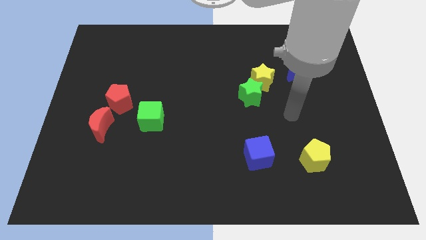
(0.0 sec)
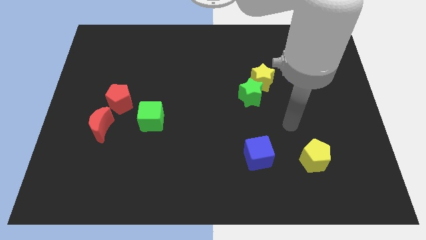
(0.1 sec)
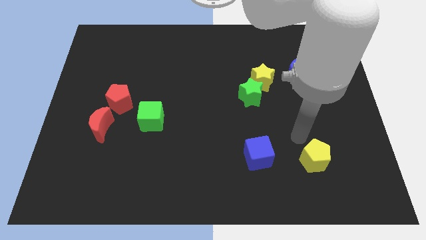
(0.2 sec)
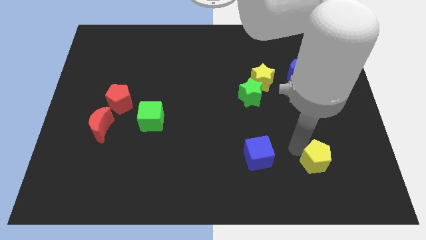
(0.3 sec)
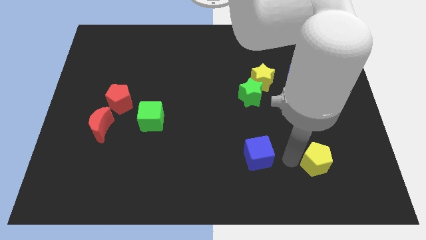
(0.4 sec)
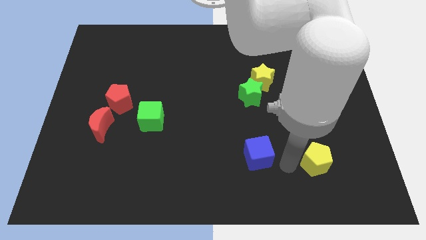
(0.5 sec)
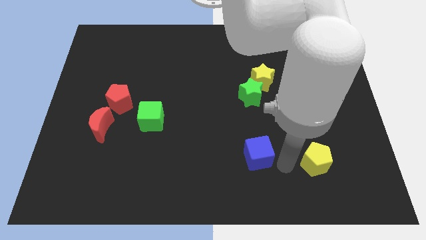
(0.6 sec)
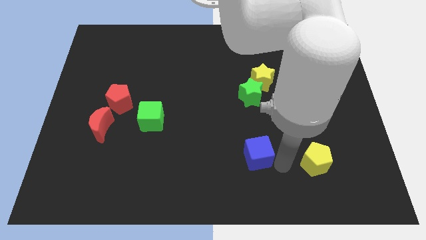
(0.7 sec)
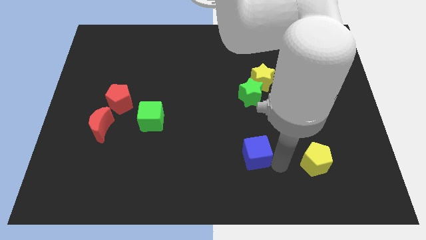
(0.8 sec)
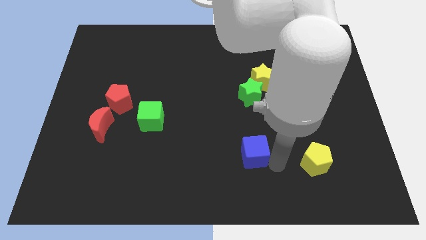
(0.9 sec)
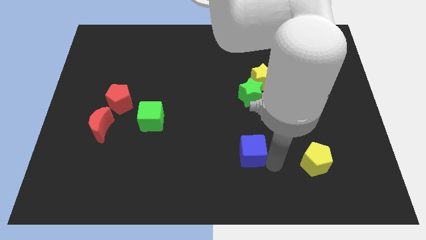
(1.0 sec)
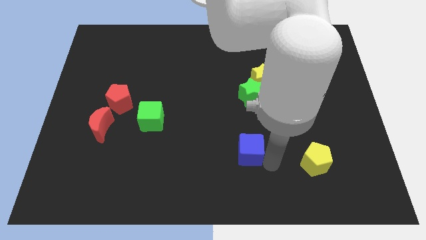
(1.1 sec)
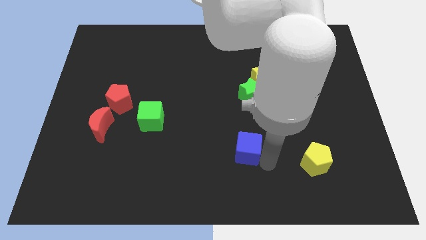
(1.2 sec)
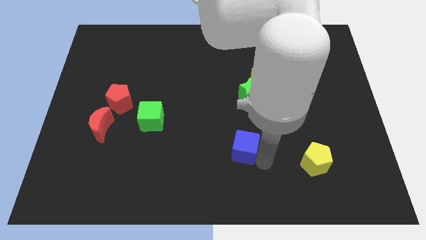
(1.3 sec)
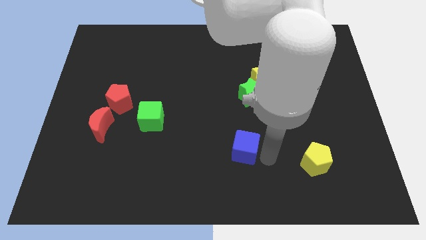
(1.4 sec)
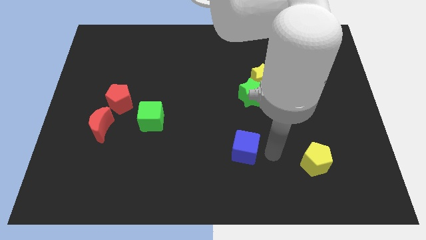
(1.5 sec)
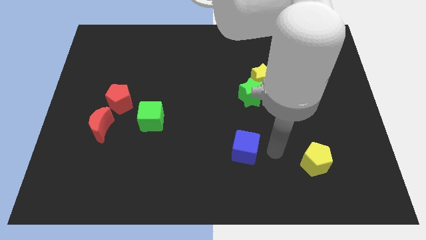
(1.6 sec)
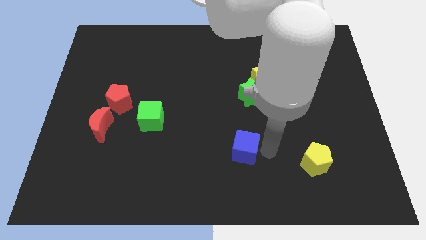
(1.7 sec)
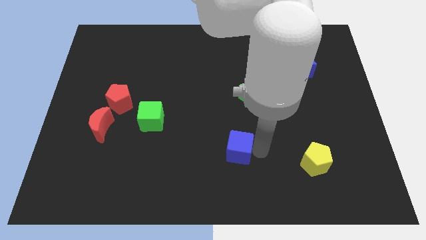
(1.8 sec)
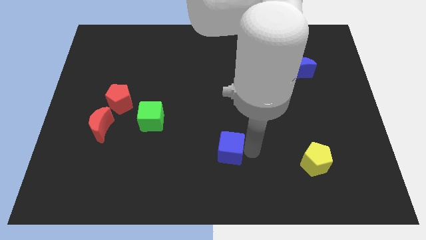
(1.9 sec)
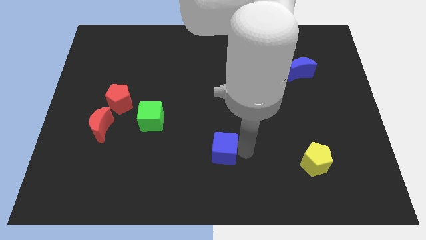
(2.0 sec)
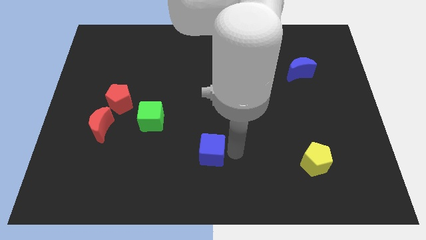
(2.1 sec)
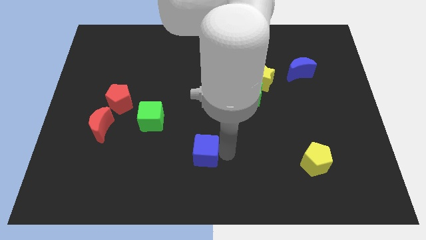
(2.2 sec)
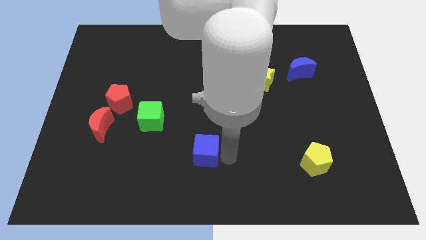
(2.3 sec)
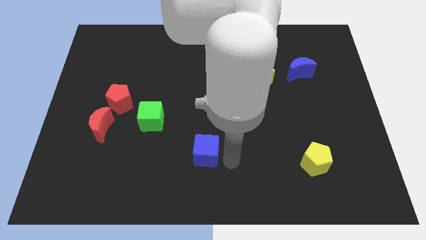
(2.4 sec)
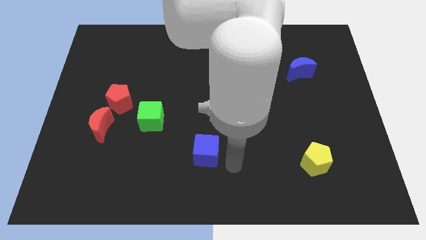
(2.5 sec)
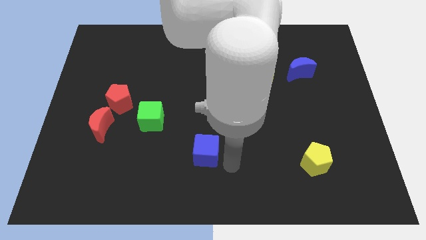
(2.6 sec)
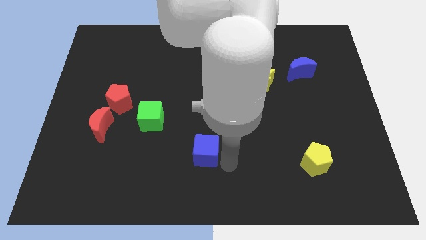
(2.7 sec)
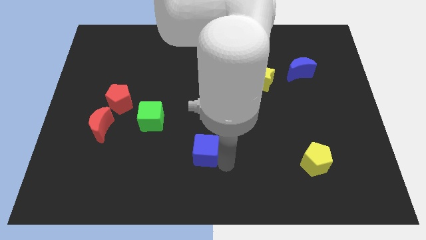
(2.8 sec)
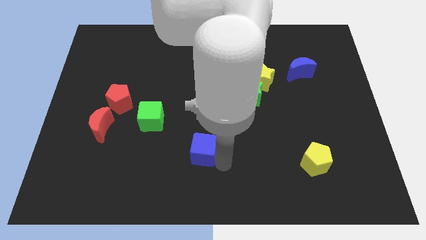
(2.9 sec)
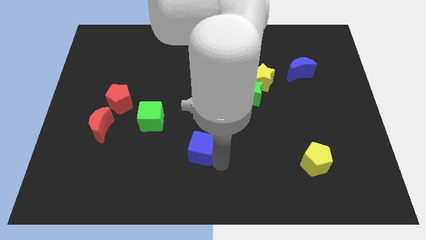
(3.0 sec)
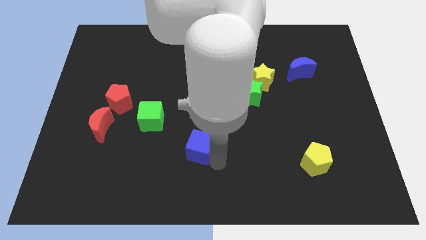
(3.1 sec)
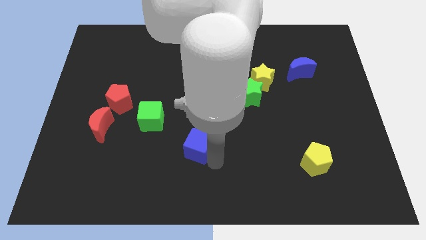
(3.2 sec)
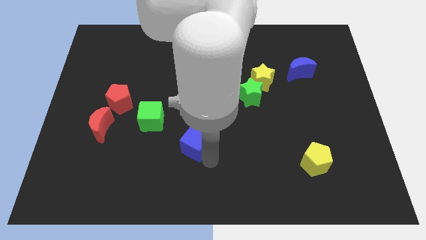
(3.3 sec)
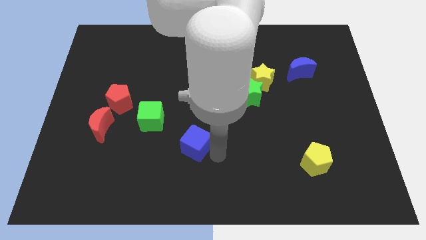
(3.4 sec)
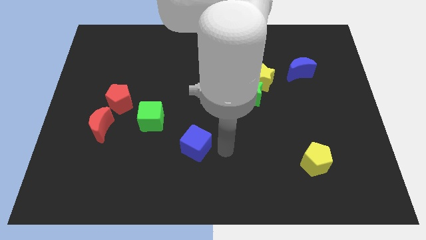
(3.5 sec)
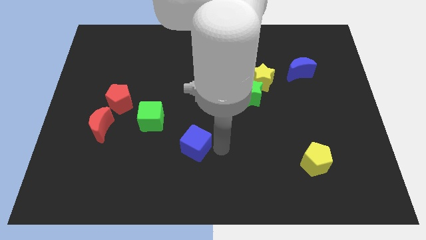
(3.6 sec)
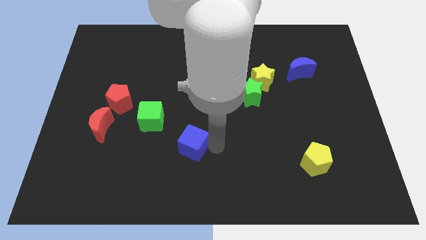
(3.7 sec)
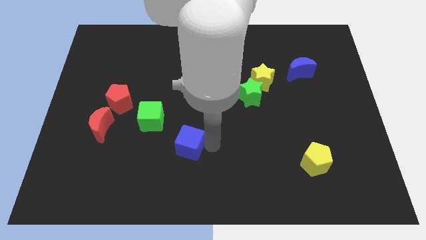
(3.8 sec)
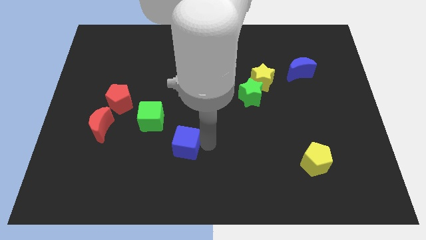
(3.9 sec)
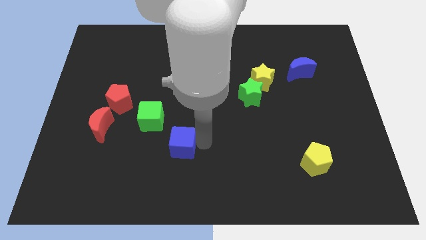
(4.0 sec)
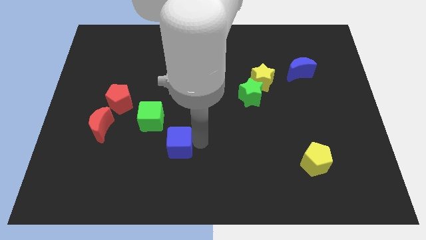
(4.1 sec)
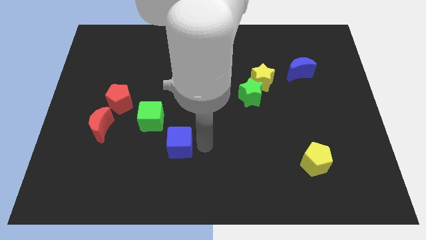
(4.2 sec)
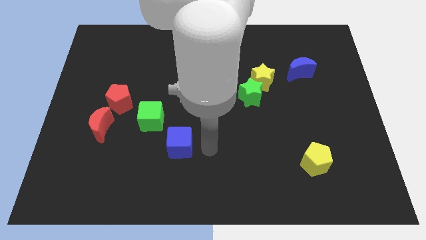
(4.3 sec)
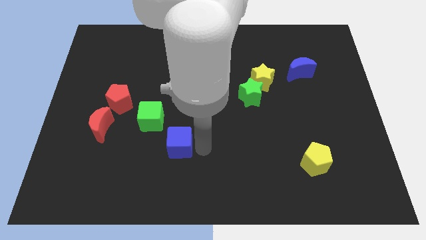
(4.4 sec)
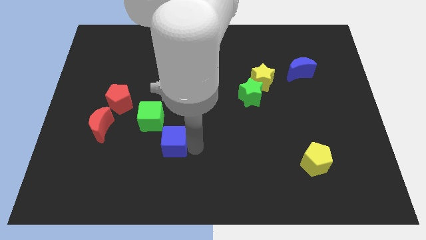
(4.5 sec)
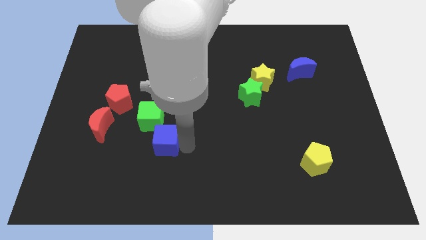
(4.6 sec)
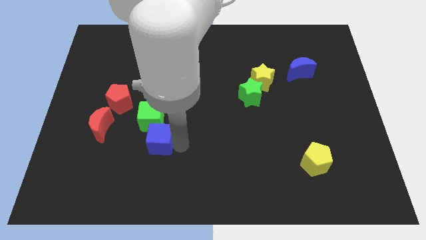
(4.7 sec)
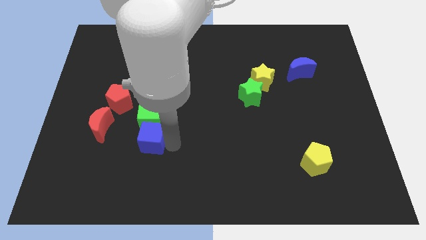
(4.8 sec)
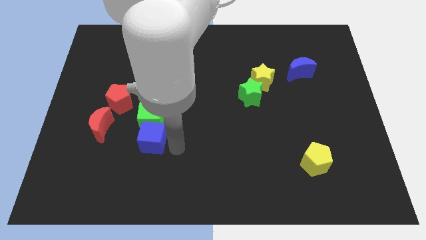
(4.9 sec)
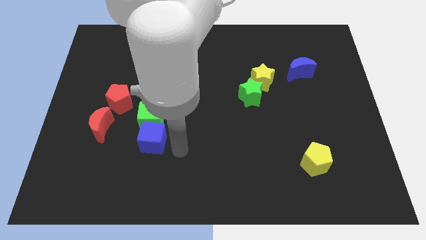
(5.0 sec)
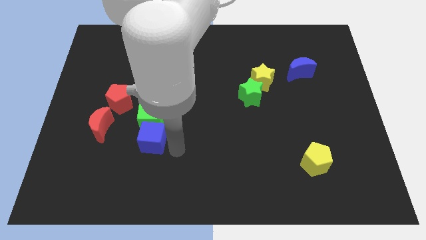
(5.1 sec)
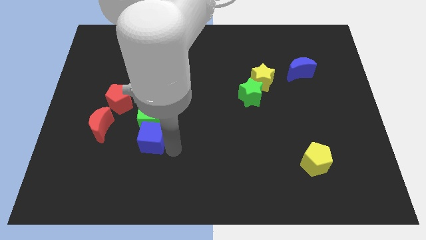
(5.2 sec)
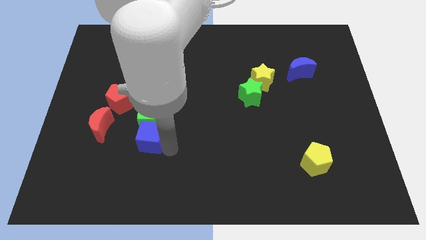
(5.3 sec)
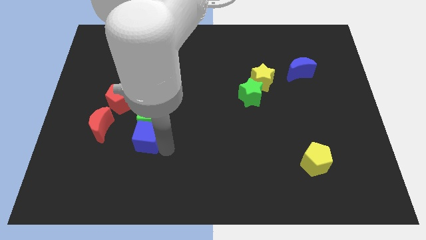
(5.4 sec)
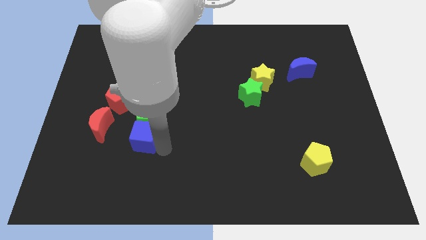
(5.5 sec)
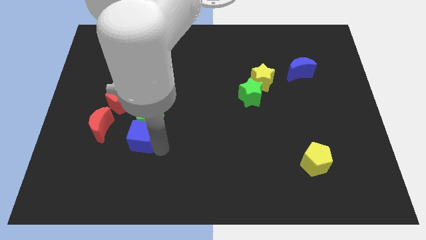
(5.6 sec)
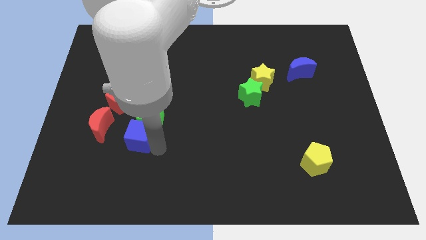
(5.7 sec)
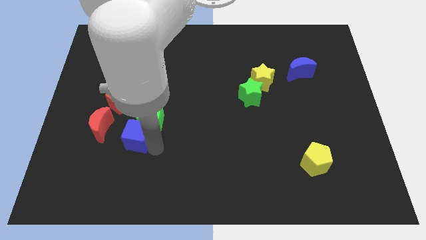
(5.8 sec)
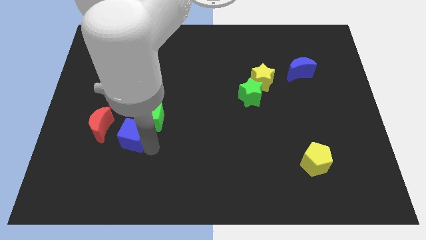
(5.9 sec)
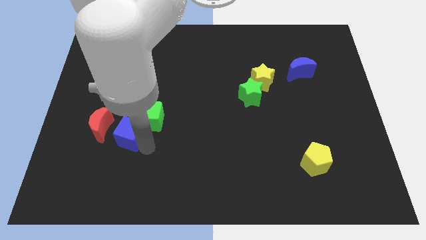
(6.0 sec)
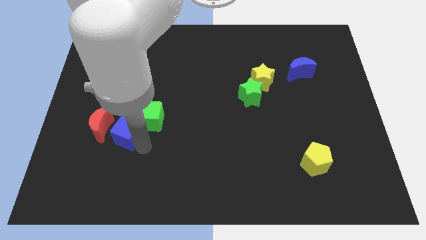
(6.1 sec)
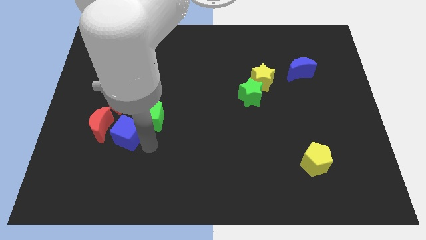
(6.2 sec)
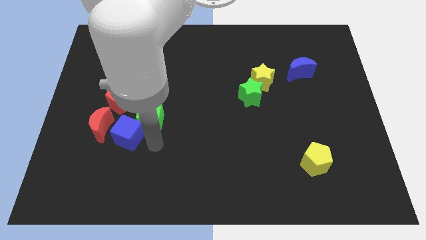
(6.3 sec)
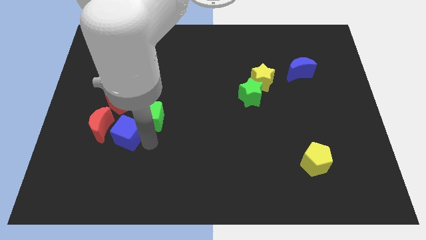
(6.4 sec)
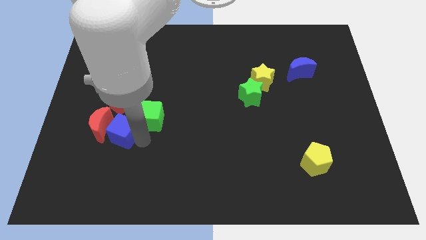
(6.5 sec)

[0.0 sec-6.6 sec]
move the blue cube to the red moon

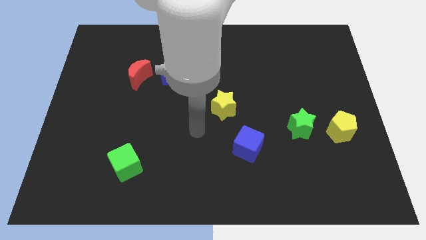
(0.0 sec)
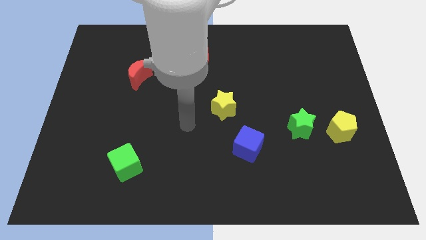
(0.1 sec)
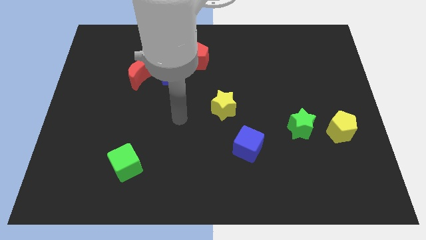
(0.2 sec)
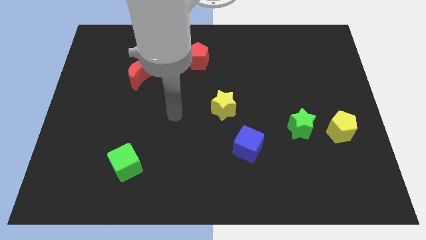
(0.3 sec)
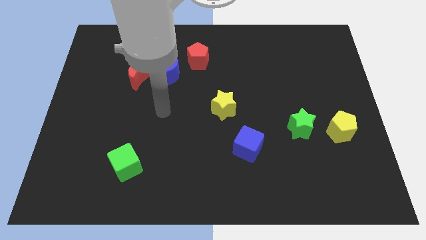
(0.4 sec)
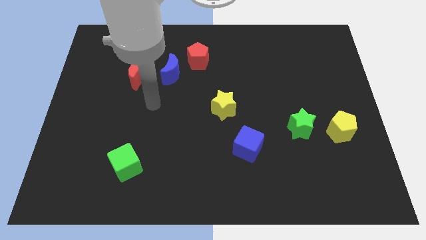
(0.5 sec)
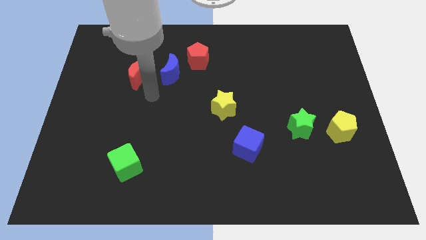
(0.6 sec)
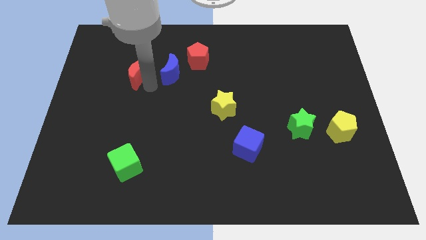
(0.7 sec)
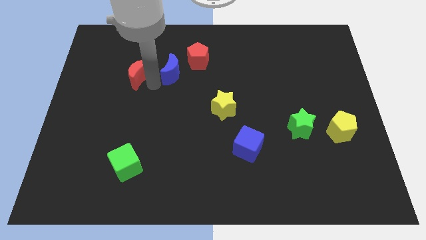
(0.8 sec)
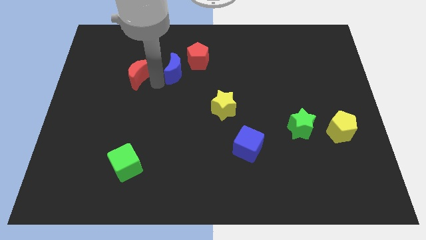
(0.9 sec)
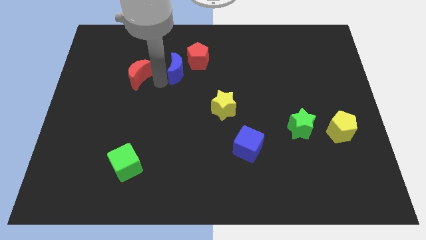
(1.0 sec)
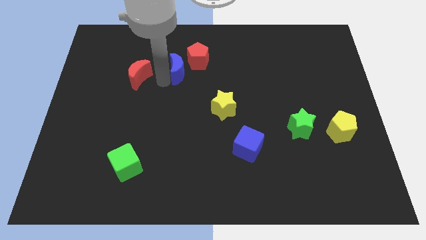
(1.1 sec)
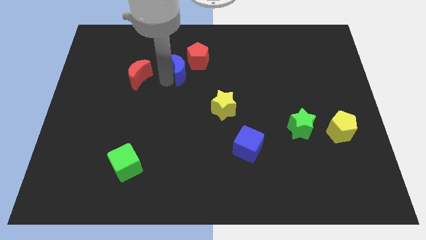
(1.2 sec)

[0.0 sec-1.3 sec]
slide the blue moon towards the red pentagon
